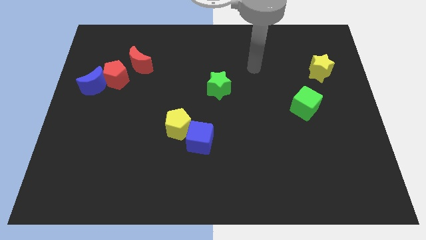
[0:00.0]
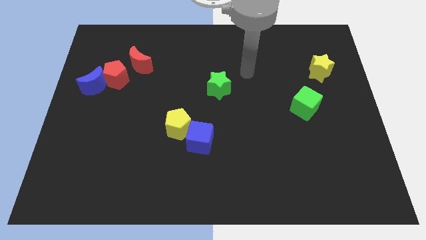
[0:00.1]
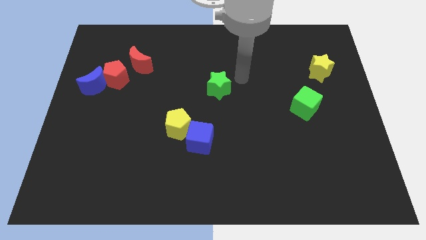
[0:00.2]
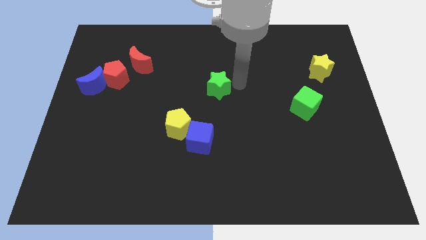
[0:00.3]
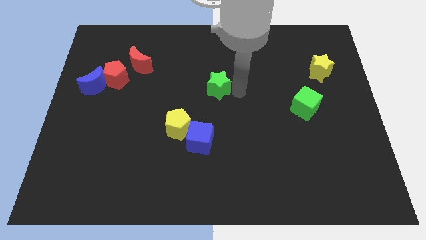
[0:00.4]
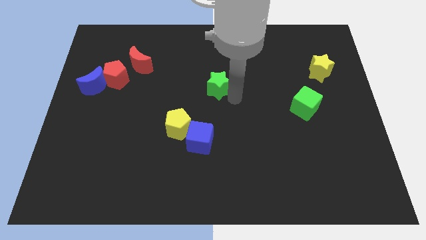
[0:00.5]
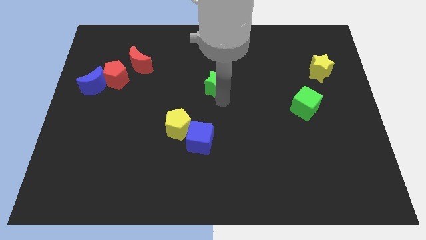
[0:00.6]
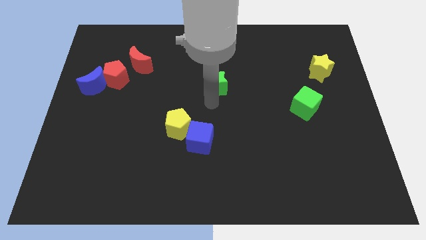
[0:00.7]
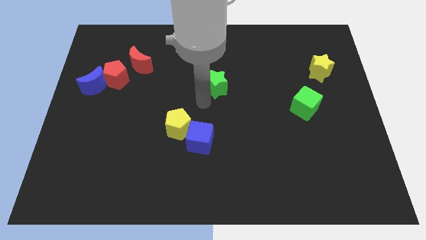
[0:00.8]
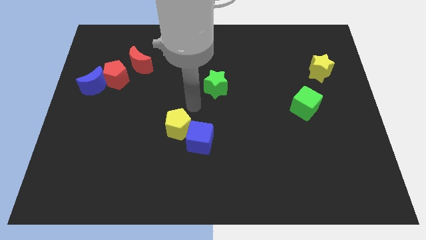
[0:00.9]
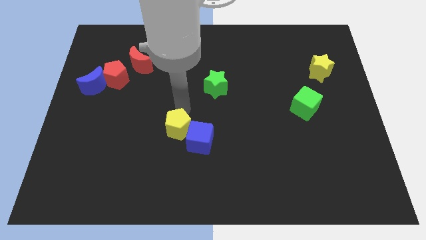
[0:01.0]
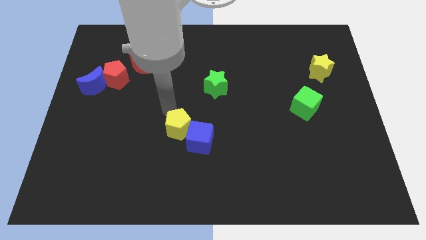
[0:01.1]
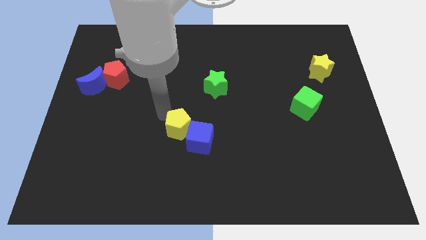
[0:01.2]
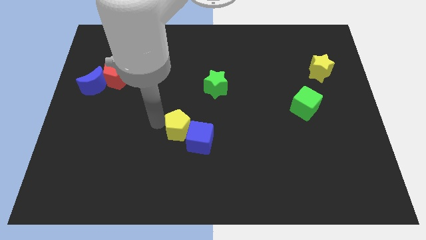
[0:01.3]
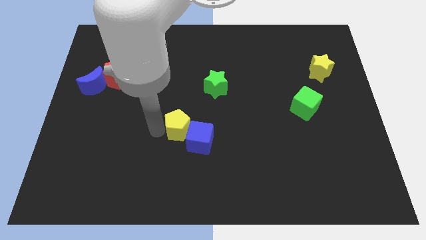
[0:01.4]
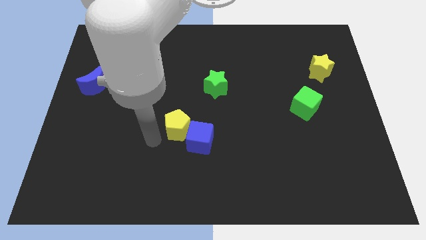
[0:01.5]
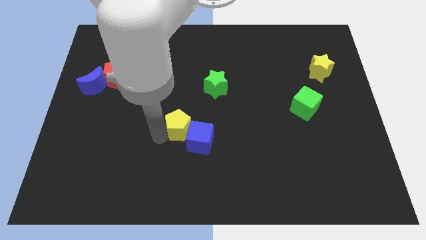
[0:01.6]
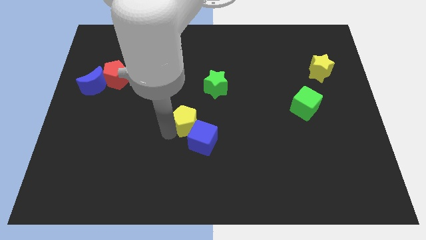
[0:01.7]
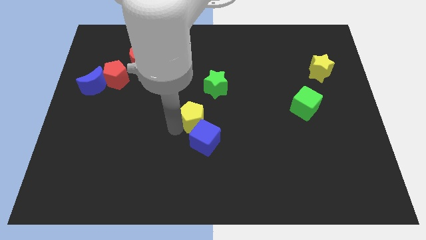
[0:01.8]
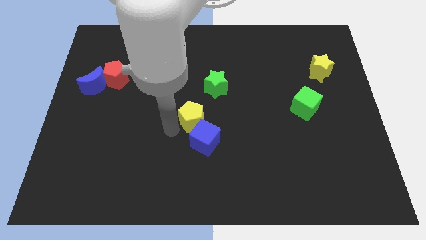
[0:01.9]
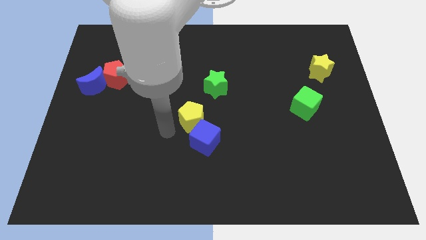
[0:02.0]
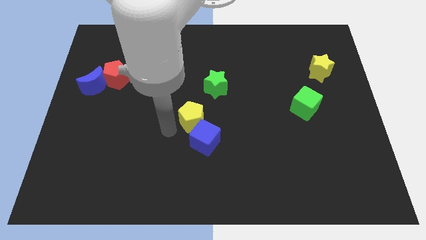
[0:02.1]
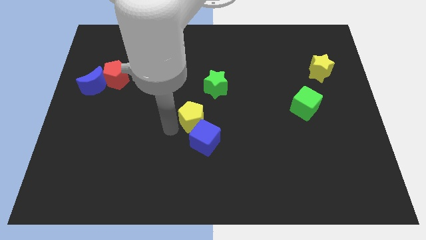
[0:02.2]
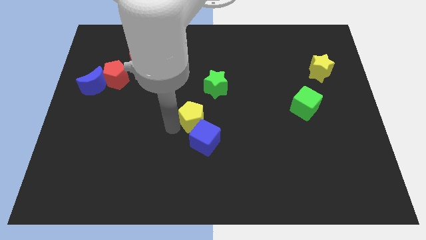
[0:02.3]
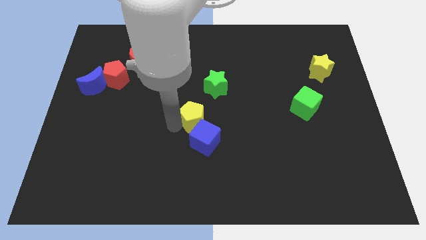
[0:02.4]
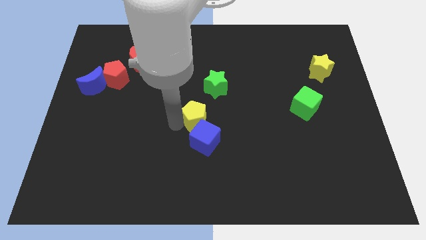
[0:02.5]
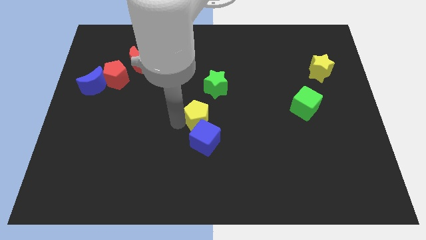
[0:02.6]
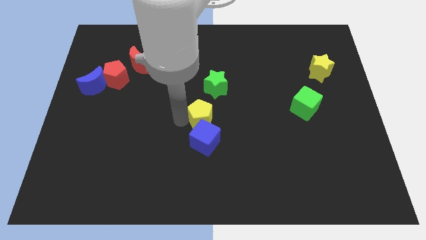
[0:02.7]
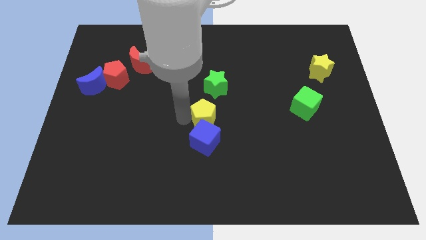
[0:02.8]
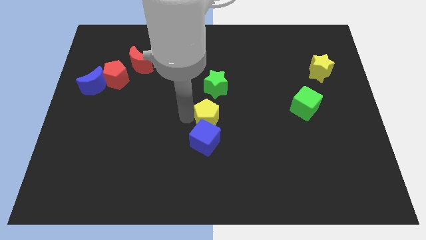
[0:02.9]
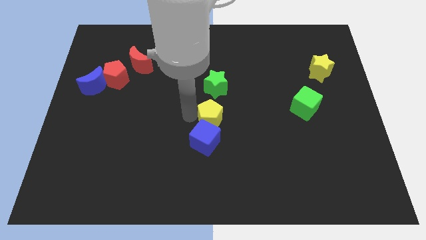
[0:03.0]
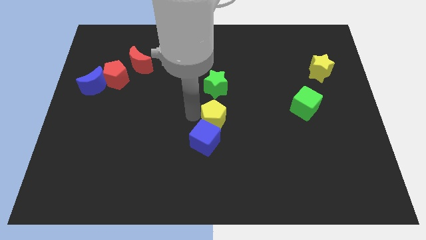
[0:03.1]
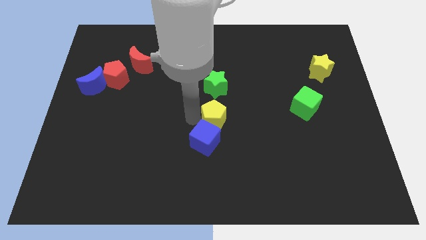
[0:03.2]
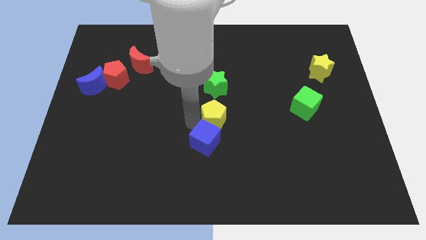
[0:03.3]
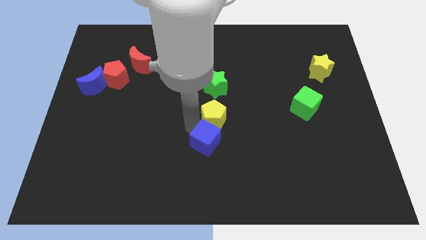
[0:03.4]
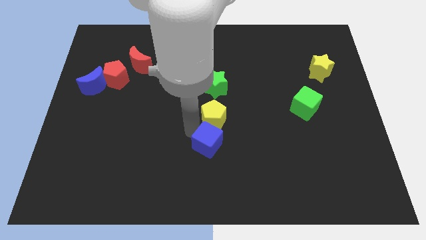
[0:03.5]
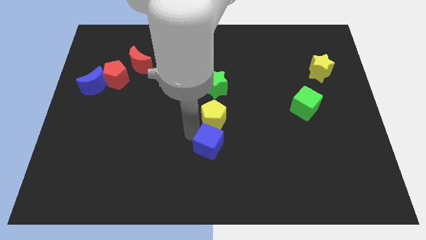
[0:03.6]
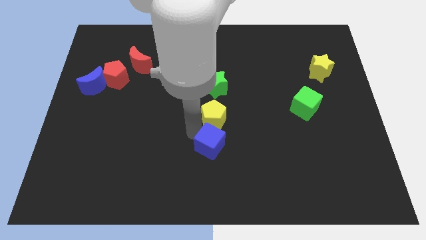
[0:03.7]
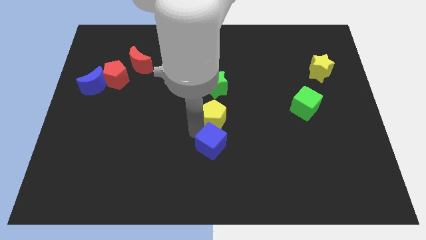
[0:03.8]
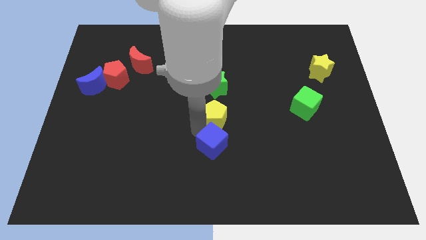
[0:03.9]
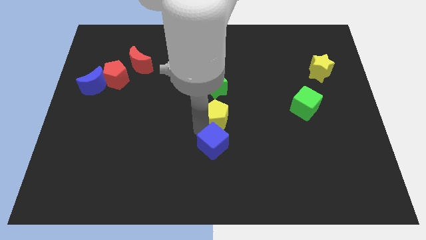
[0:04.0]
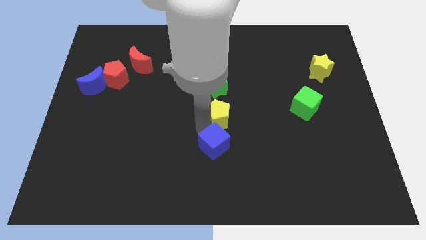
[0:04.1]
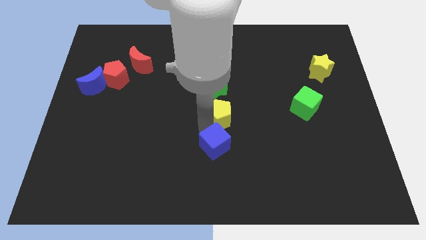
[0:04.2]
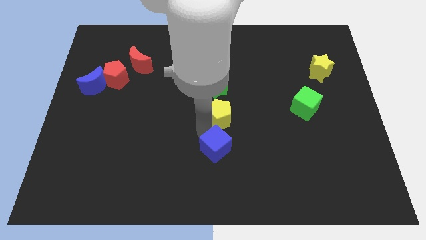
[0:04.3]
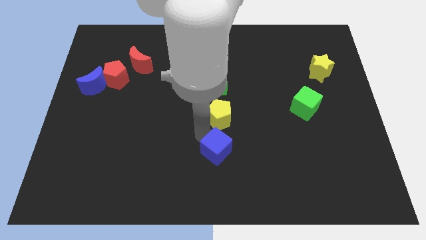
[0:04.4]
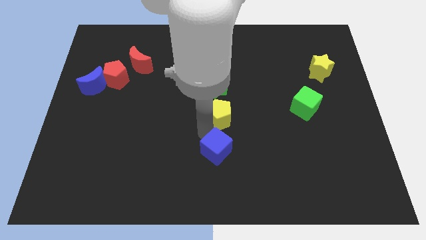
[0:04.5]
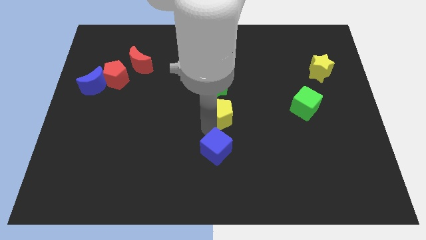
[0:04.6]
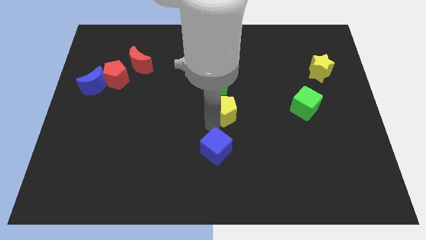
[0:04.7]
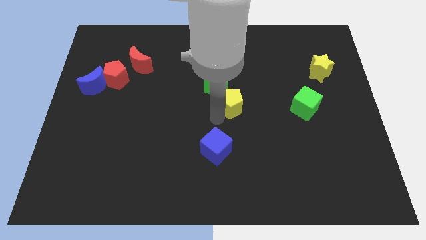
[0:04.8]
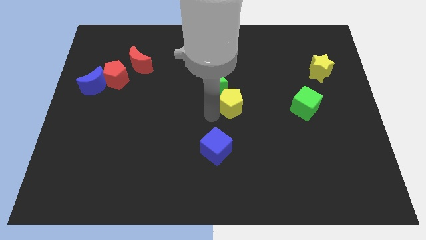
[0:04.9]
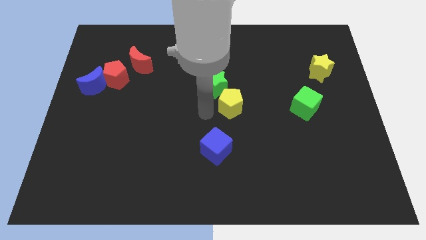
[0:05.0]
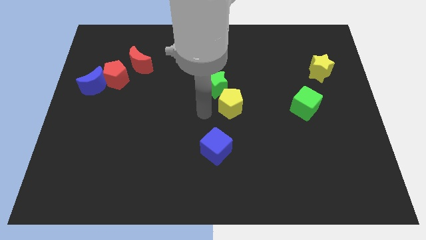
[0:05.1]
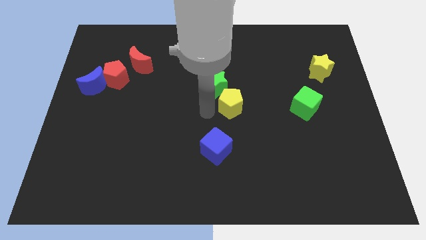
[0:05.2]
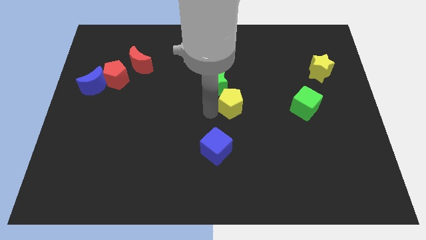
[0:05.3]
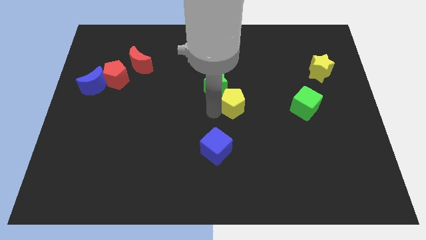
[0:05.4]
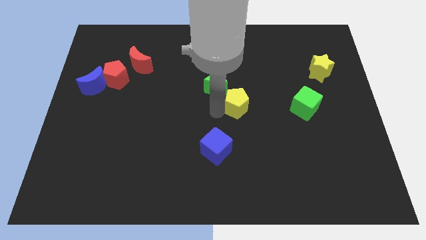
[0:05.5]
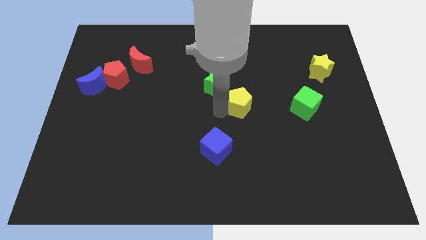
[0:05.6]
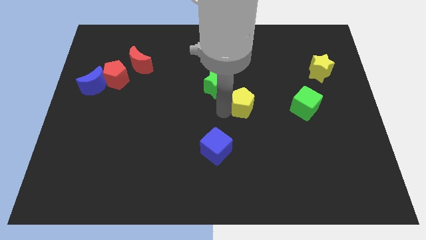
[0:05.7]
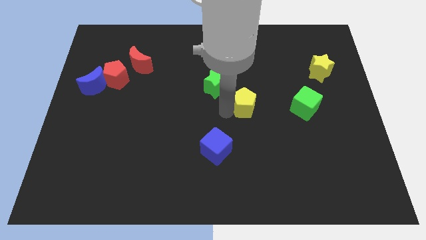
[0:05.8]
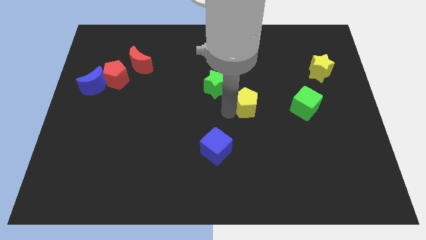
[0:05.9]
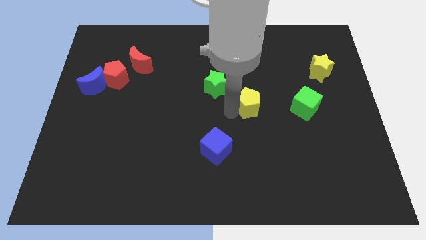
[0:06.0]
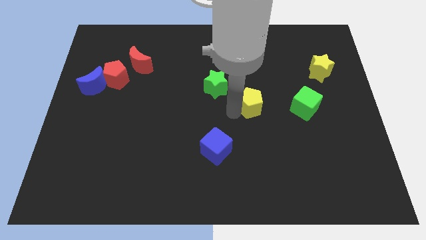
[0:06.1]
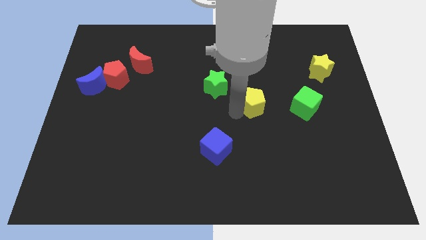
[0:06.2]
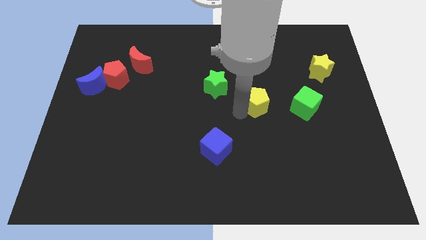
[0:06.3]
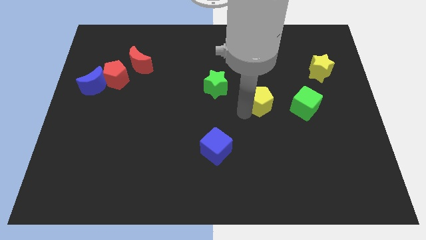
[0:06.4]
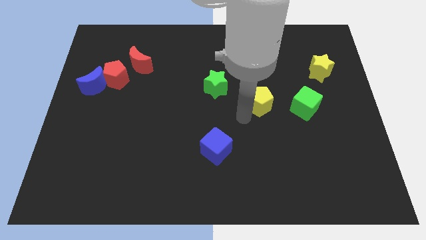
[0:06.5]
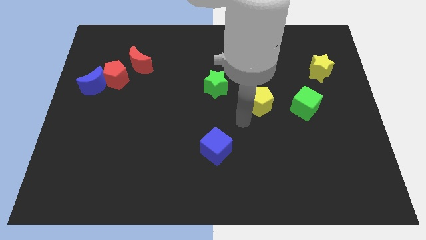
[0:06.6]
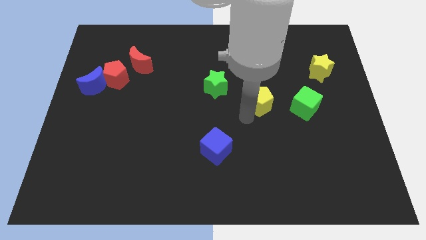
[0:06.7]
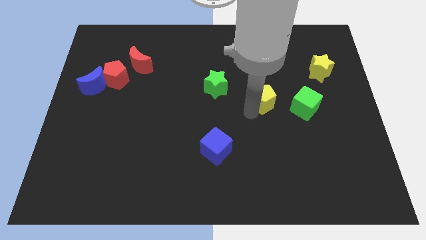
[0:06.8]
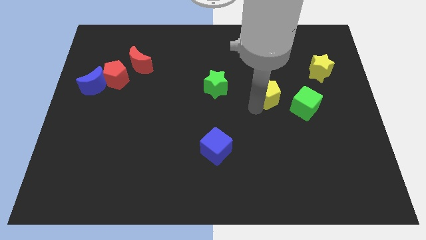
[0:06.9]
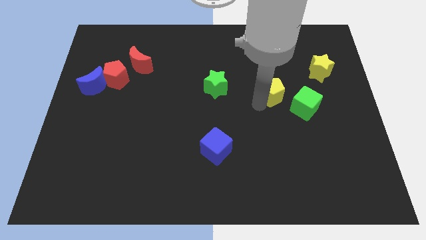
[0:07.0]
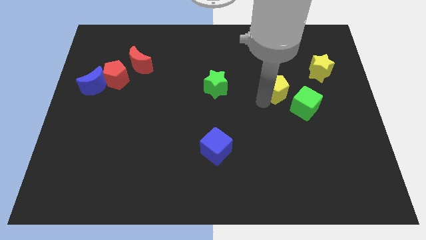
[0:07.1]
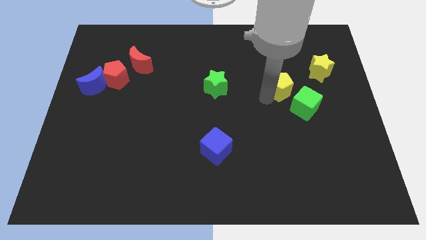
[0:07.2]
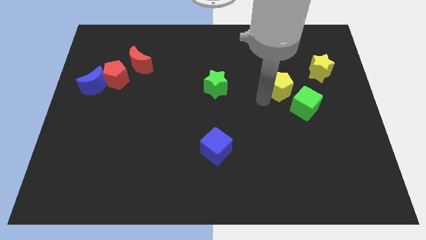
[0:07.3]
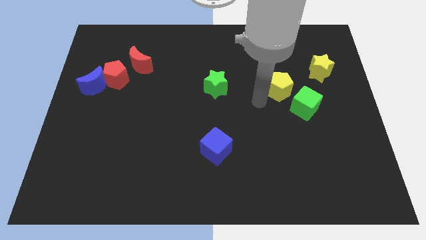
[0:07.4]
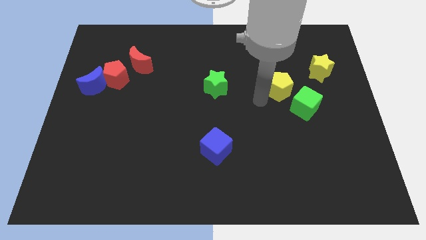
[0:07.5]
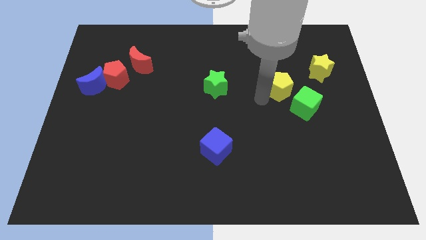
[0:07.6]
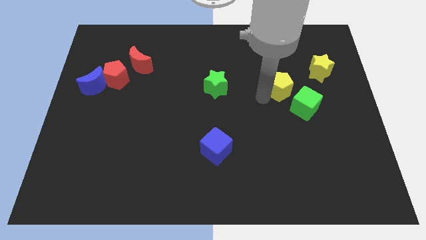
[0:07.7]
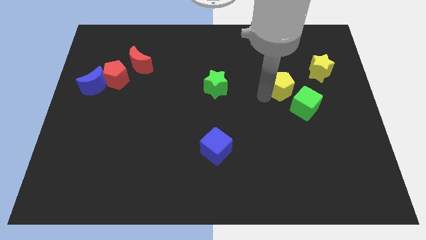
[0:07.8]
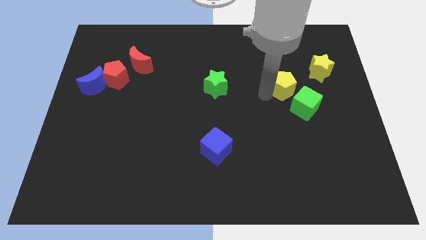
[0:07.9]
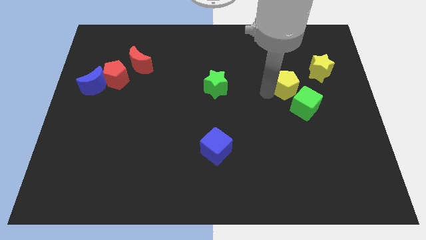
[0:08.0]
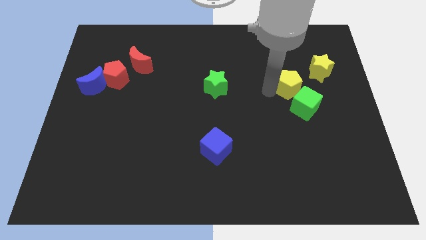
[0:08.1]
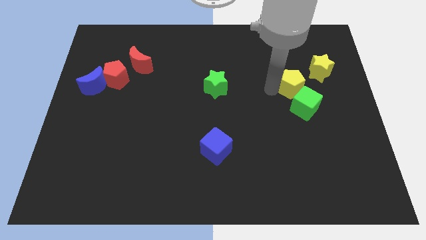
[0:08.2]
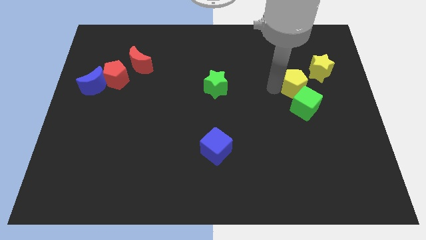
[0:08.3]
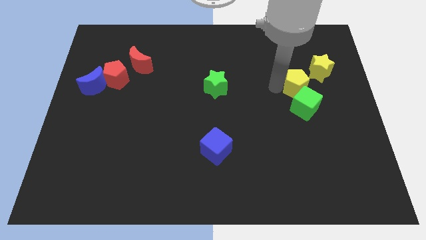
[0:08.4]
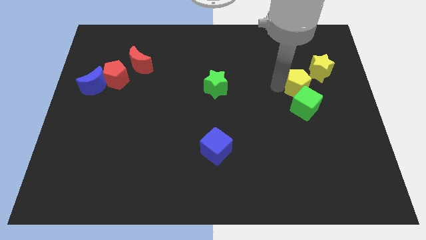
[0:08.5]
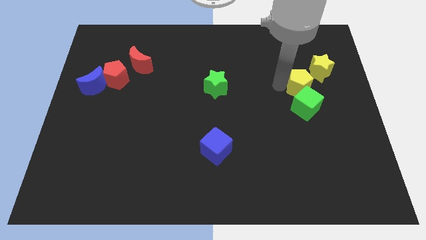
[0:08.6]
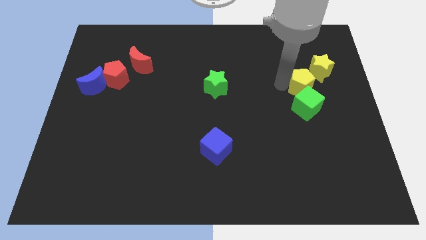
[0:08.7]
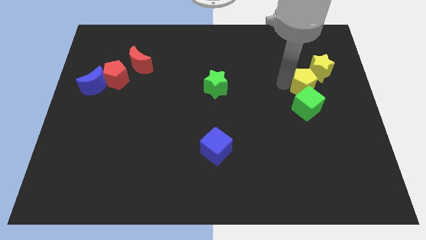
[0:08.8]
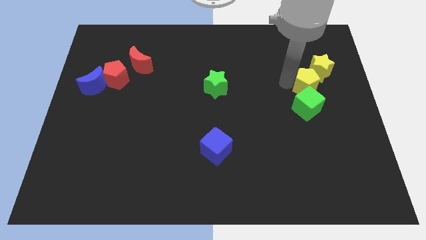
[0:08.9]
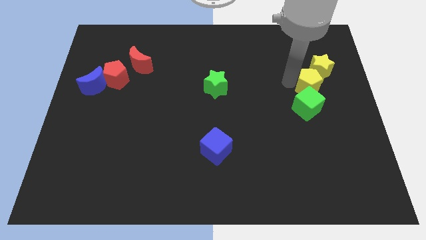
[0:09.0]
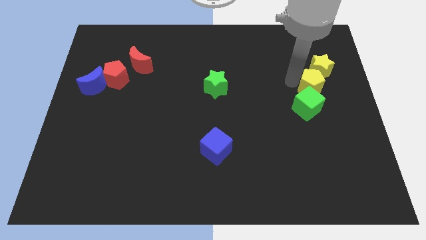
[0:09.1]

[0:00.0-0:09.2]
move the yellow pentagon next to the yellow star
